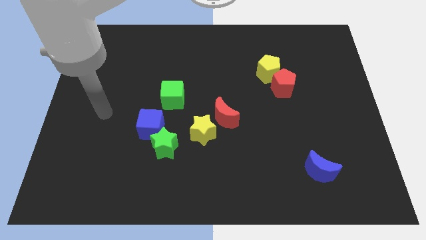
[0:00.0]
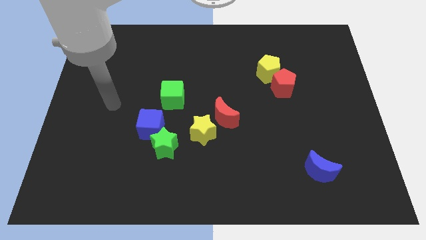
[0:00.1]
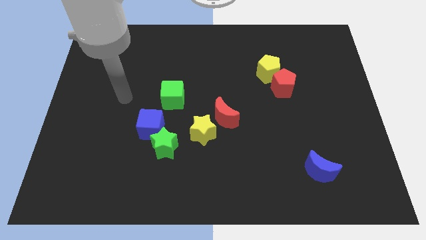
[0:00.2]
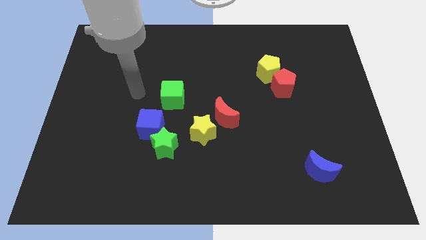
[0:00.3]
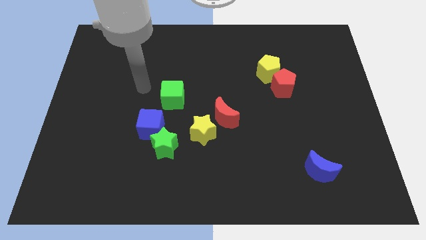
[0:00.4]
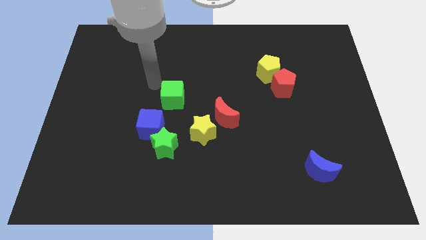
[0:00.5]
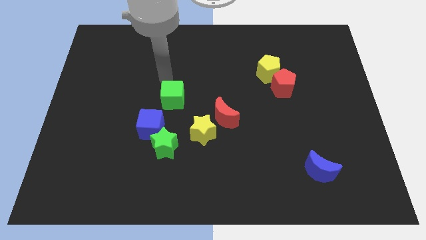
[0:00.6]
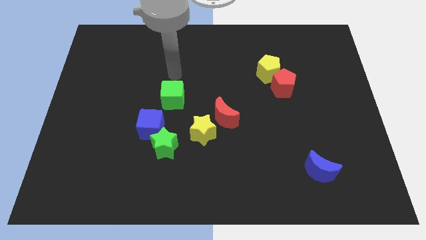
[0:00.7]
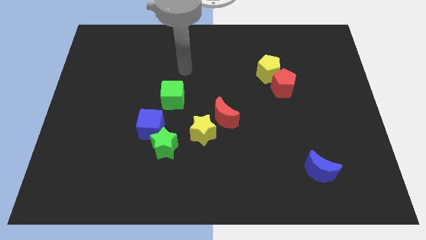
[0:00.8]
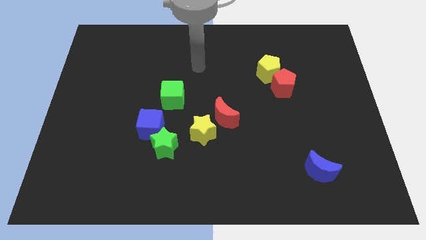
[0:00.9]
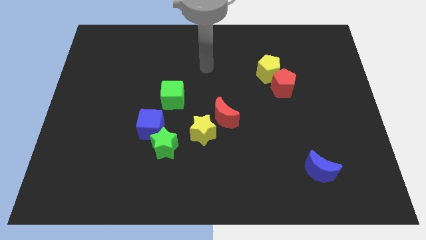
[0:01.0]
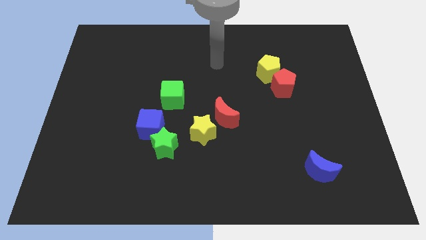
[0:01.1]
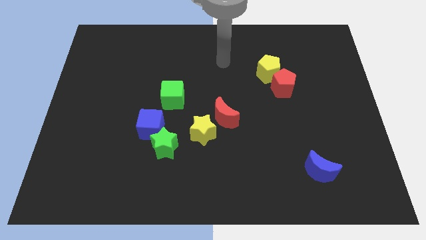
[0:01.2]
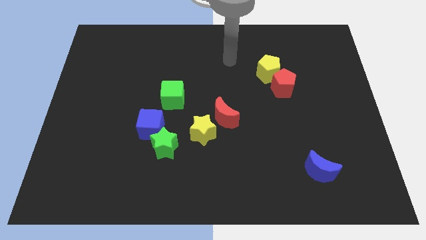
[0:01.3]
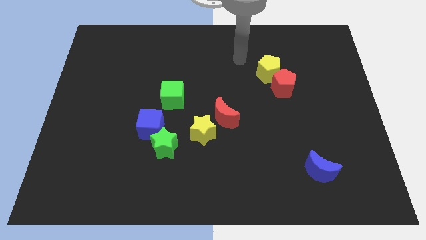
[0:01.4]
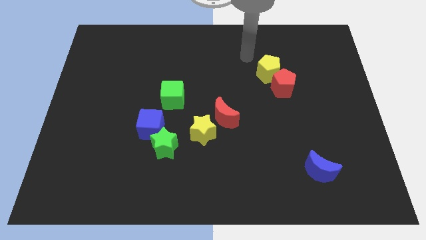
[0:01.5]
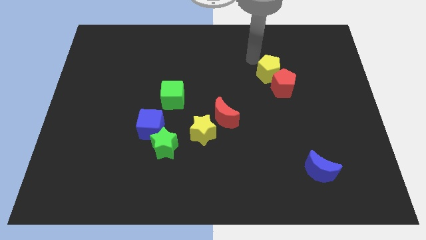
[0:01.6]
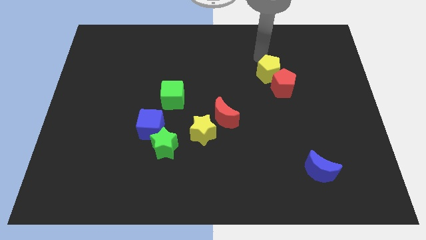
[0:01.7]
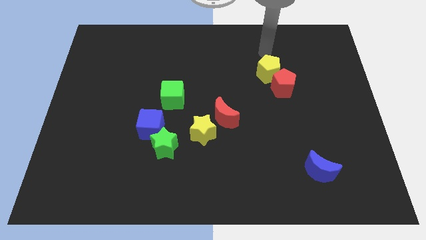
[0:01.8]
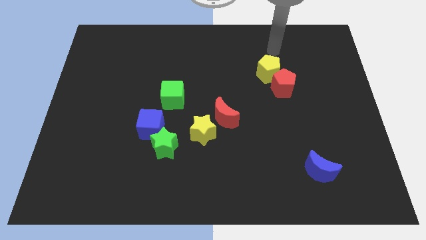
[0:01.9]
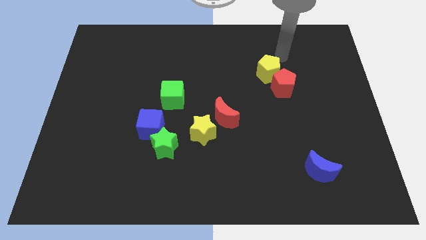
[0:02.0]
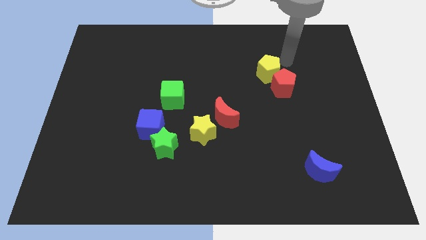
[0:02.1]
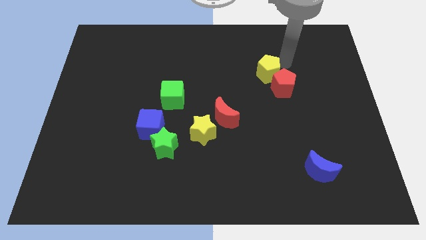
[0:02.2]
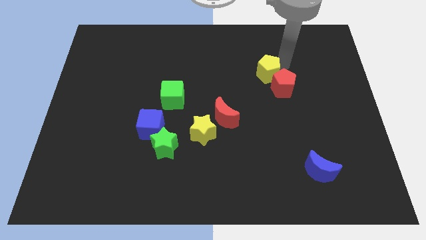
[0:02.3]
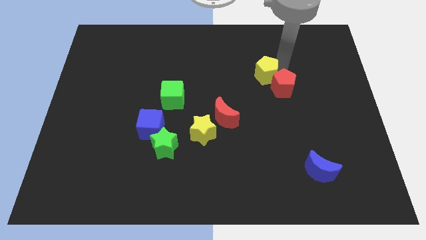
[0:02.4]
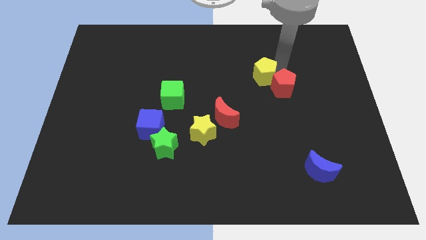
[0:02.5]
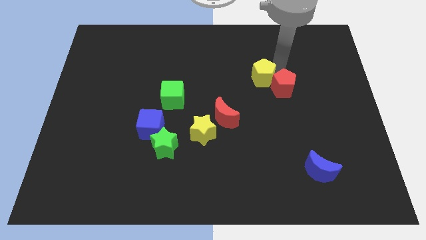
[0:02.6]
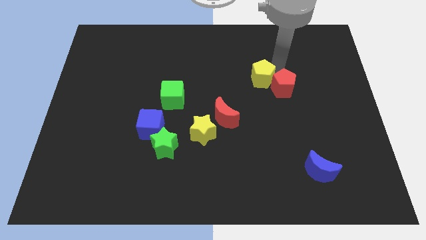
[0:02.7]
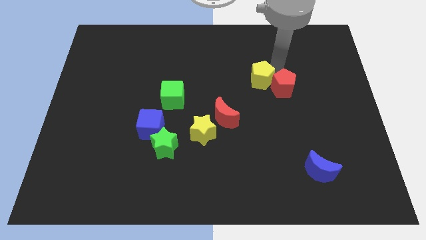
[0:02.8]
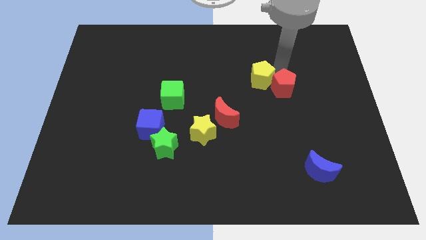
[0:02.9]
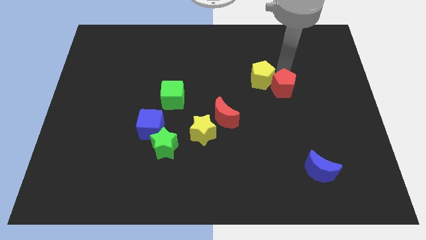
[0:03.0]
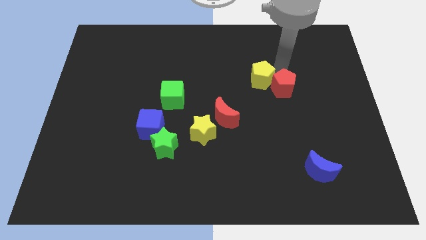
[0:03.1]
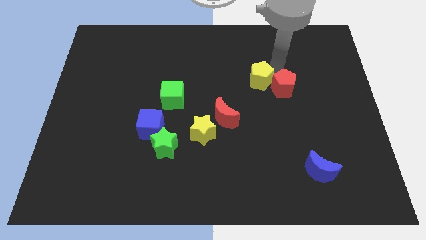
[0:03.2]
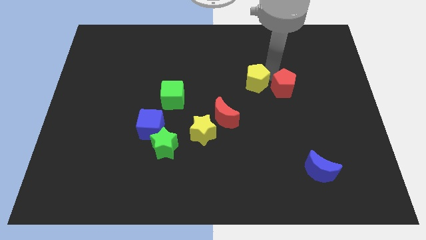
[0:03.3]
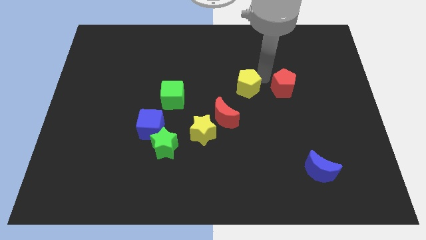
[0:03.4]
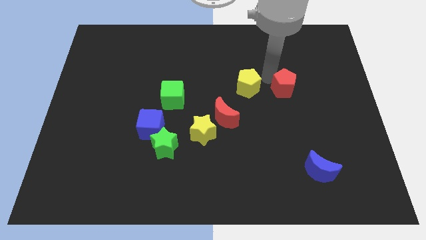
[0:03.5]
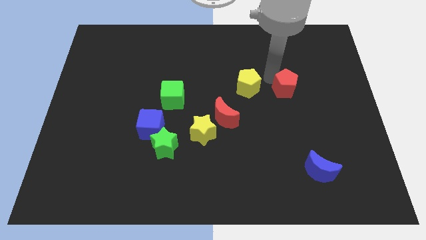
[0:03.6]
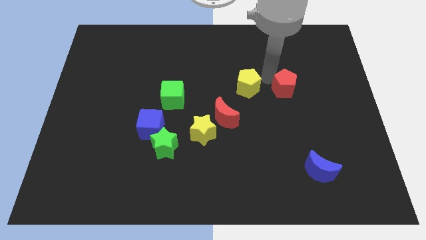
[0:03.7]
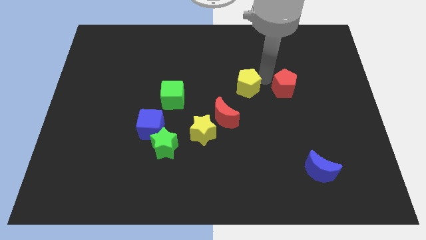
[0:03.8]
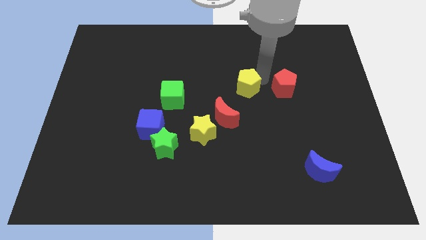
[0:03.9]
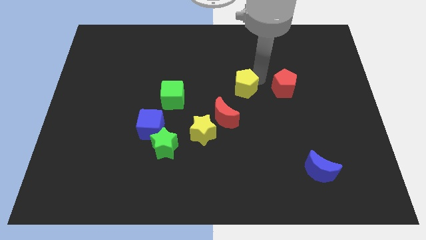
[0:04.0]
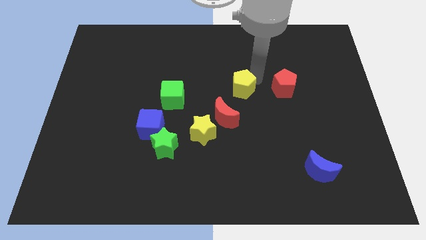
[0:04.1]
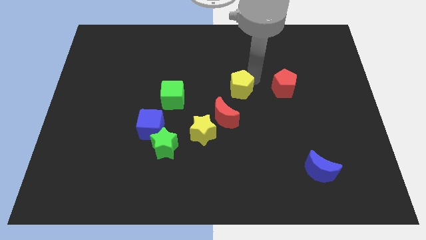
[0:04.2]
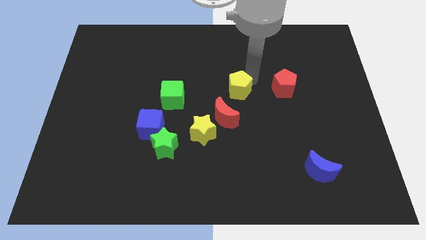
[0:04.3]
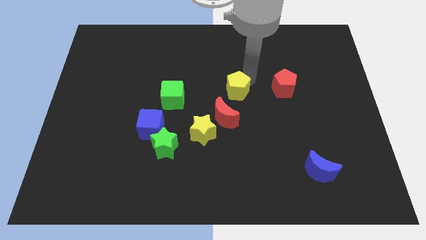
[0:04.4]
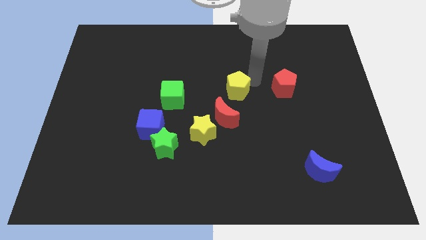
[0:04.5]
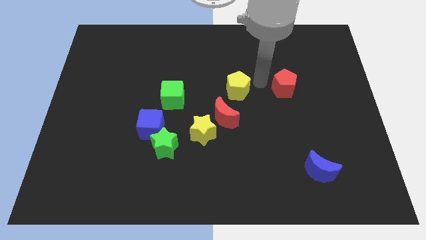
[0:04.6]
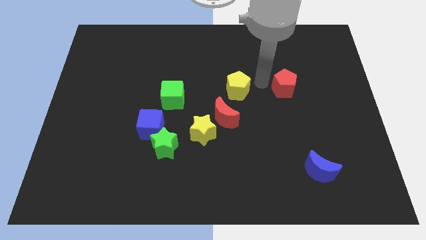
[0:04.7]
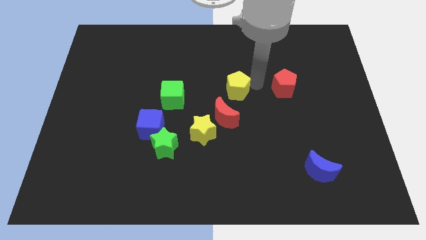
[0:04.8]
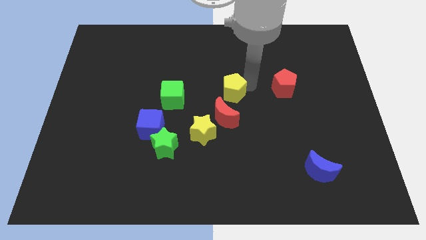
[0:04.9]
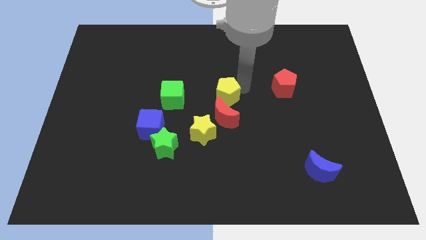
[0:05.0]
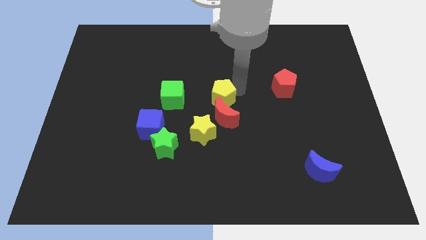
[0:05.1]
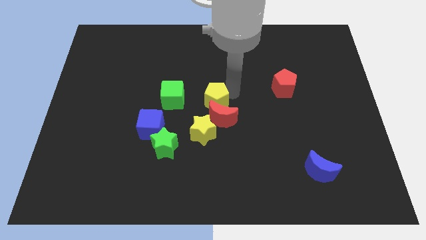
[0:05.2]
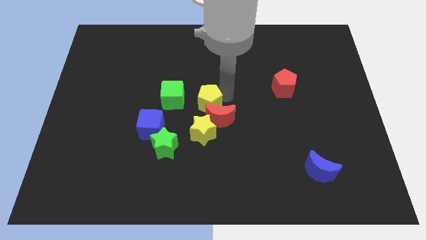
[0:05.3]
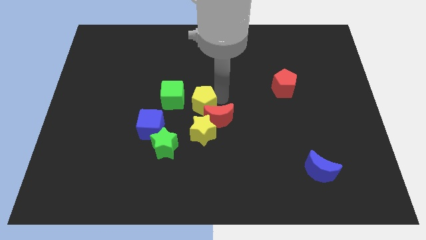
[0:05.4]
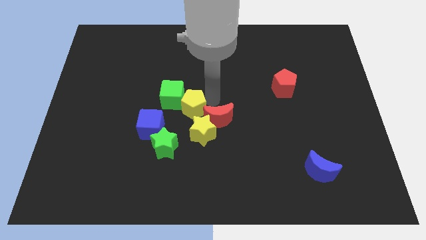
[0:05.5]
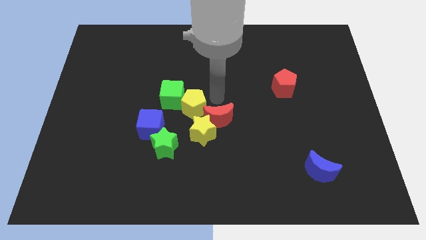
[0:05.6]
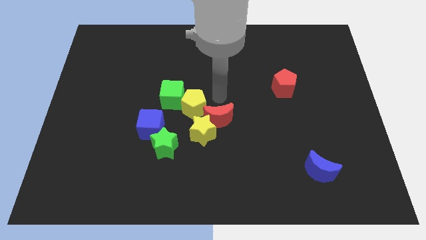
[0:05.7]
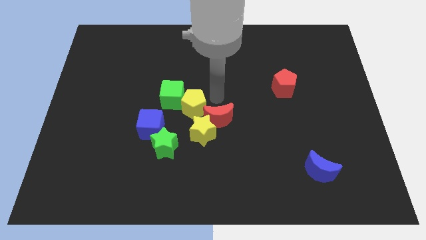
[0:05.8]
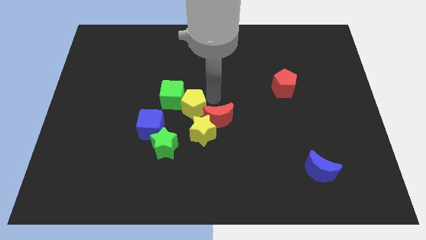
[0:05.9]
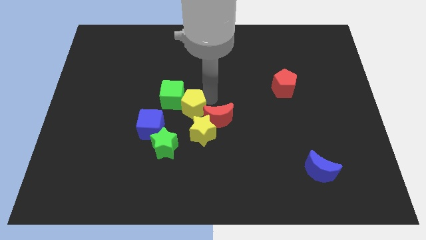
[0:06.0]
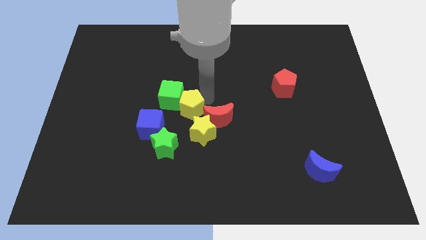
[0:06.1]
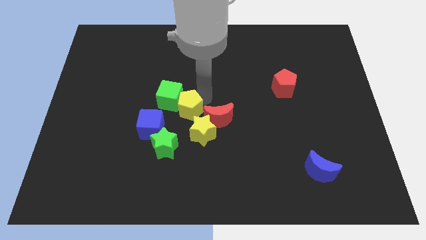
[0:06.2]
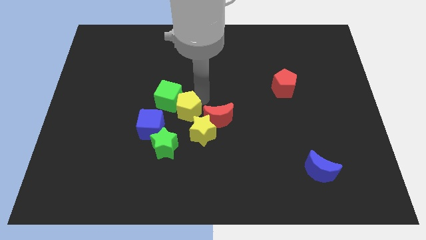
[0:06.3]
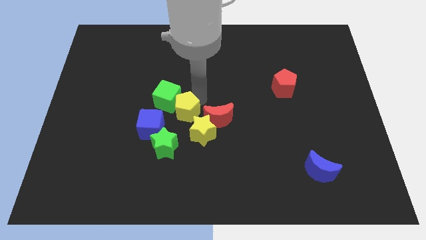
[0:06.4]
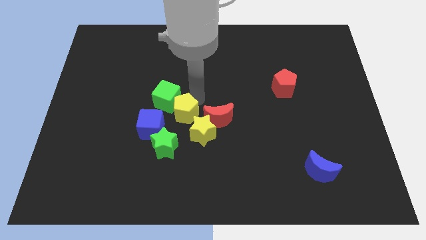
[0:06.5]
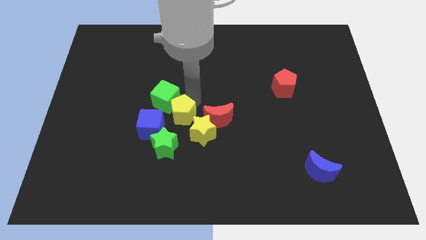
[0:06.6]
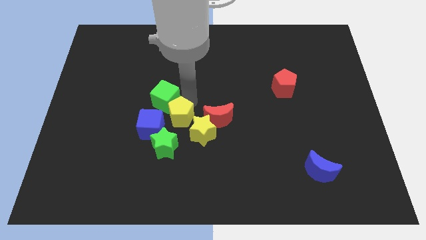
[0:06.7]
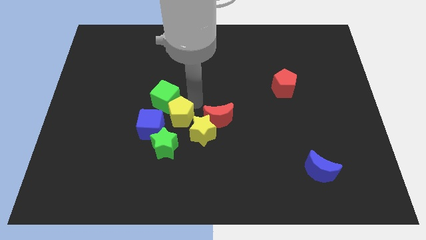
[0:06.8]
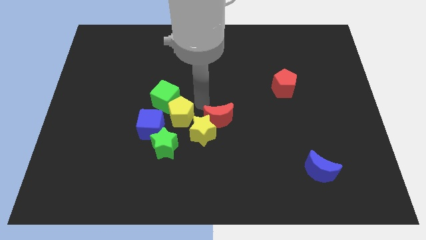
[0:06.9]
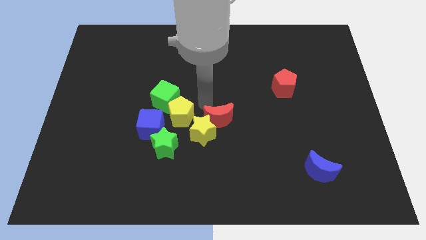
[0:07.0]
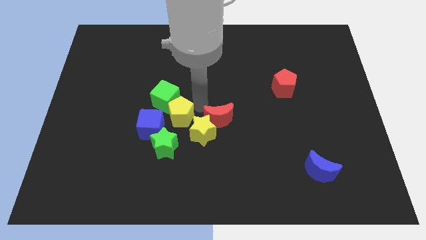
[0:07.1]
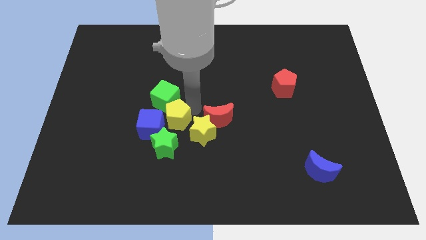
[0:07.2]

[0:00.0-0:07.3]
put the yellow pentagon next to the blue cube

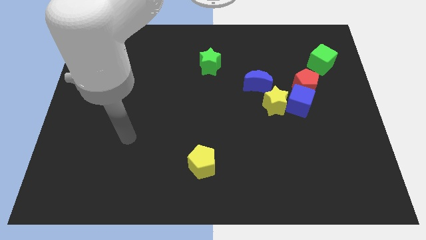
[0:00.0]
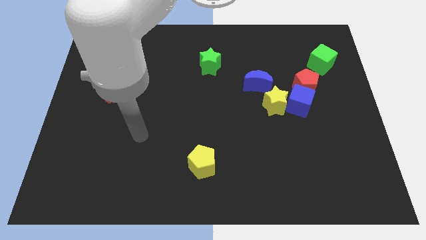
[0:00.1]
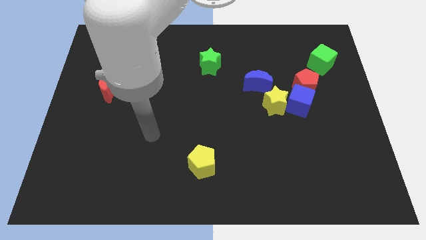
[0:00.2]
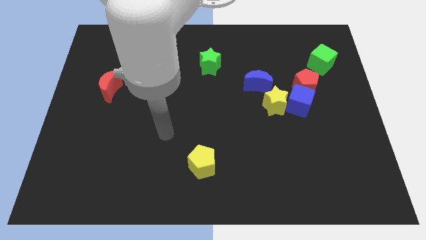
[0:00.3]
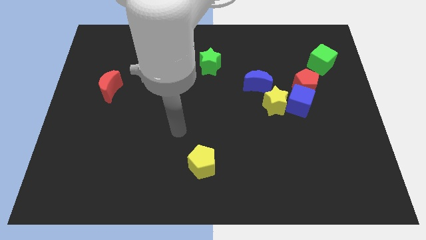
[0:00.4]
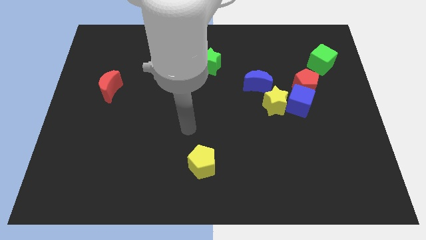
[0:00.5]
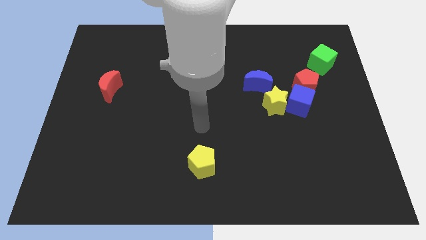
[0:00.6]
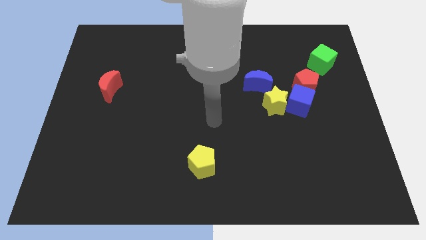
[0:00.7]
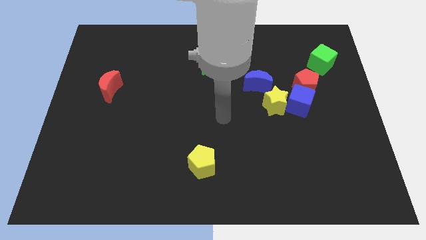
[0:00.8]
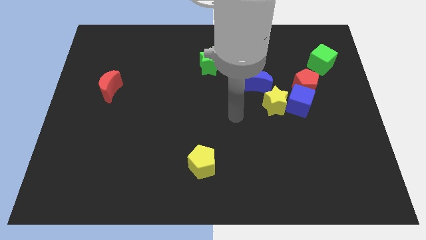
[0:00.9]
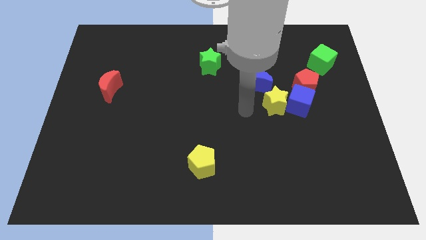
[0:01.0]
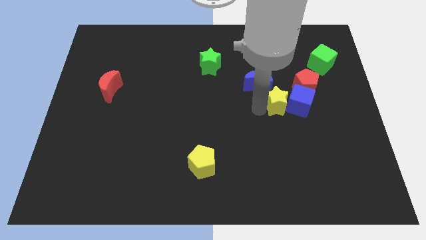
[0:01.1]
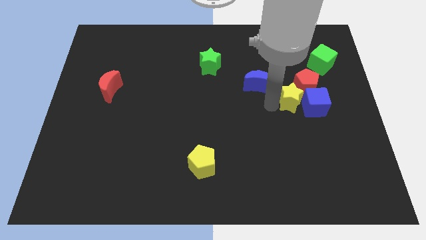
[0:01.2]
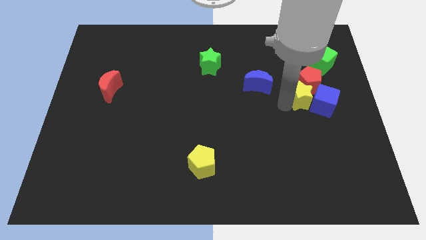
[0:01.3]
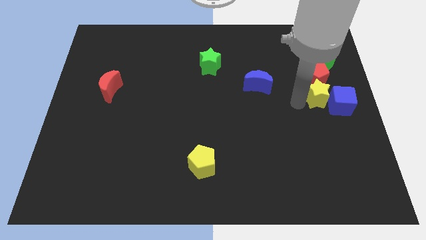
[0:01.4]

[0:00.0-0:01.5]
slide the red pentagon close to the green cube
